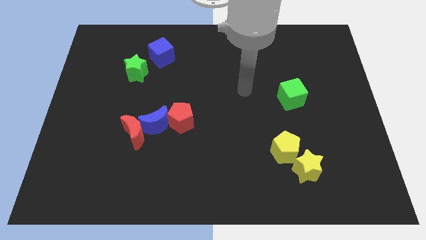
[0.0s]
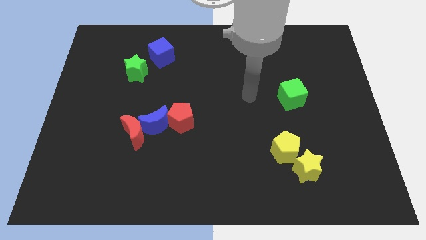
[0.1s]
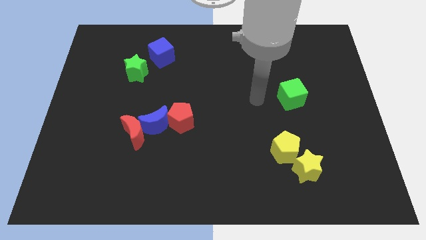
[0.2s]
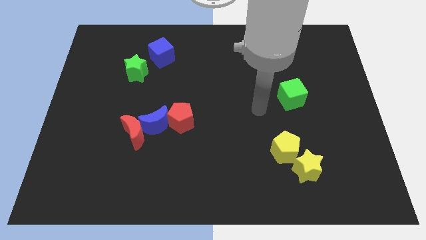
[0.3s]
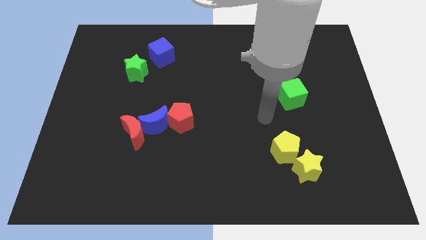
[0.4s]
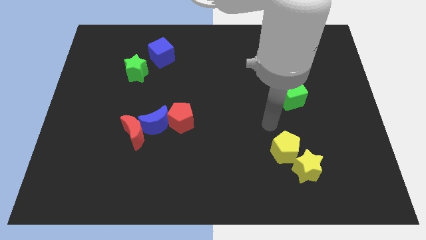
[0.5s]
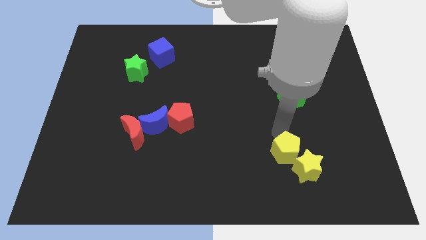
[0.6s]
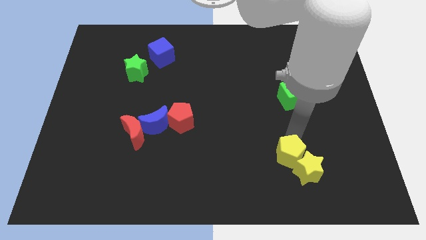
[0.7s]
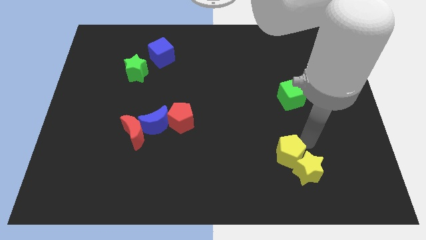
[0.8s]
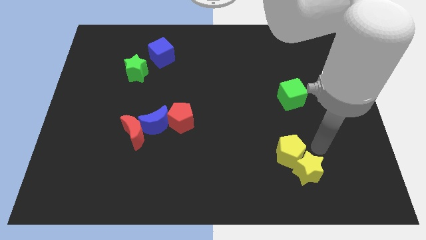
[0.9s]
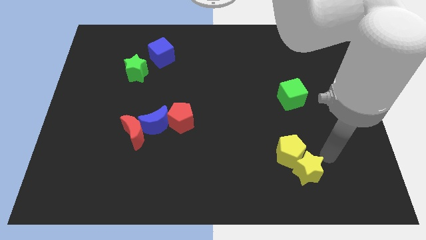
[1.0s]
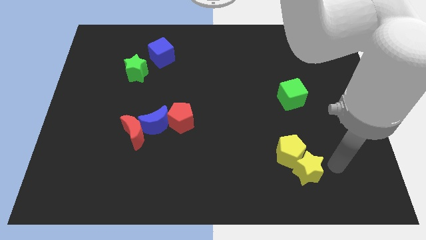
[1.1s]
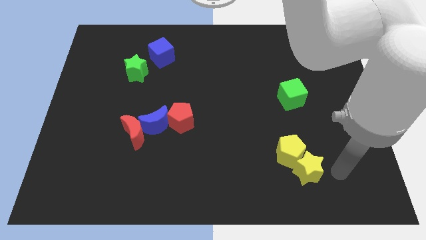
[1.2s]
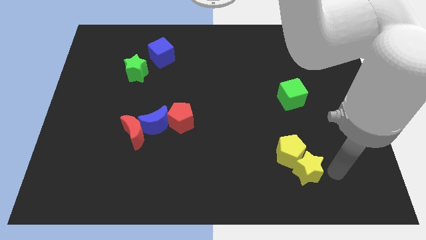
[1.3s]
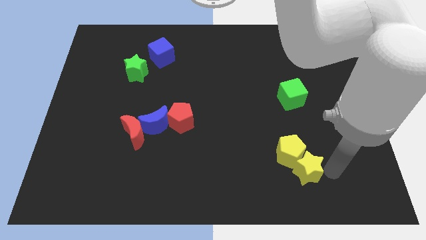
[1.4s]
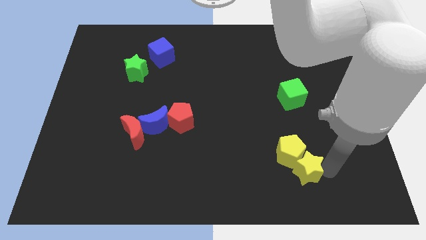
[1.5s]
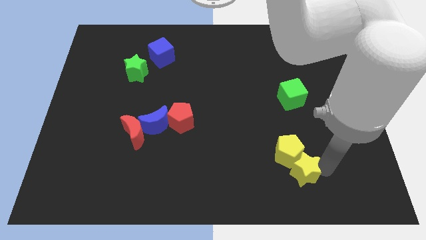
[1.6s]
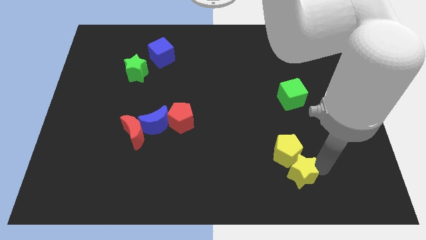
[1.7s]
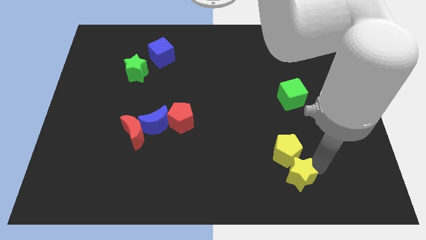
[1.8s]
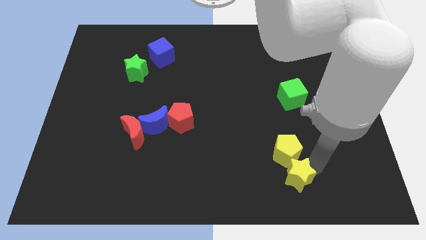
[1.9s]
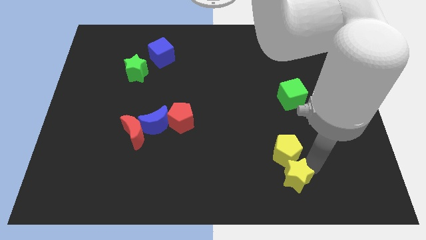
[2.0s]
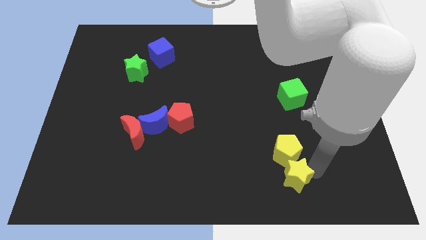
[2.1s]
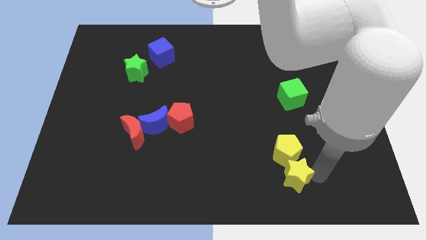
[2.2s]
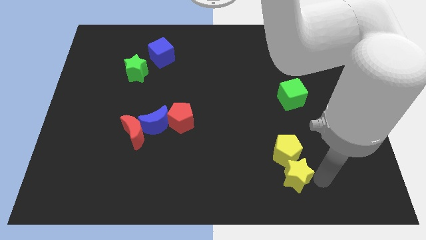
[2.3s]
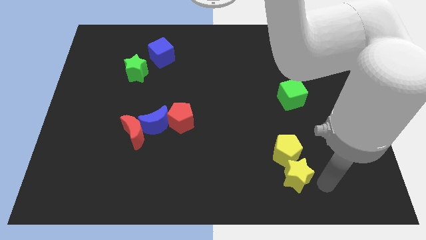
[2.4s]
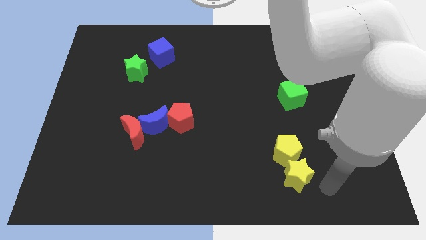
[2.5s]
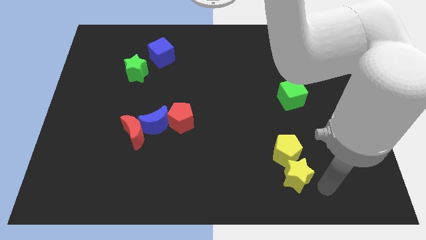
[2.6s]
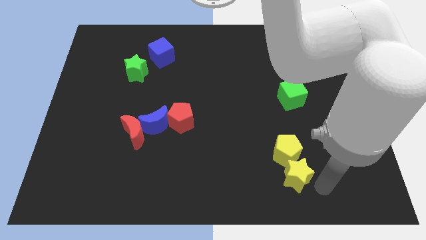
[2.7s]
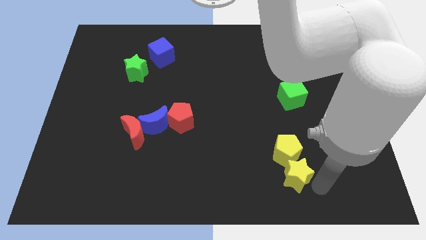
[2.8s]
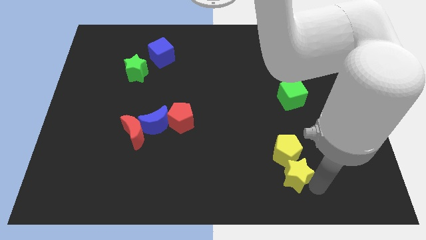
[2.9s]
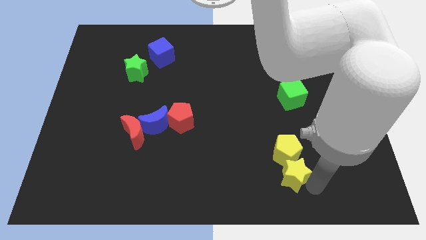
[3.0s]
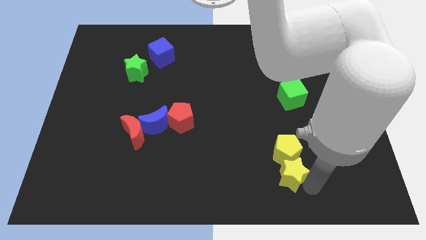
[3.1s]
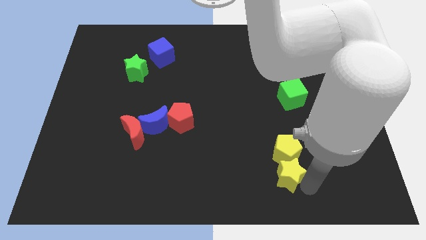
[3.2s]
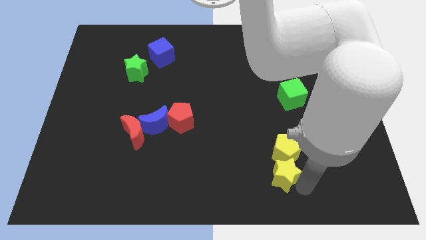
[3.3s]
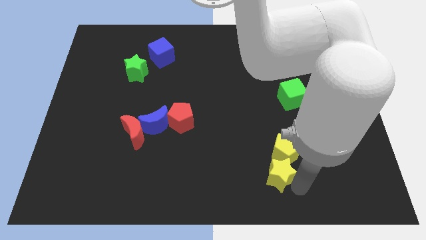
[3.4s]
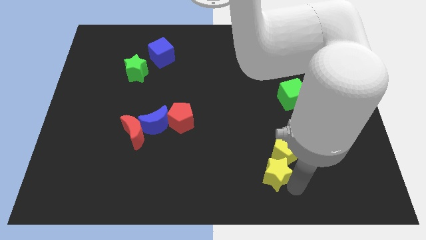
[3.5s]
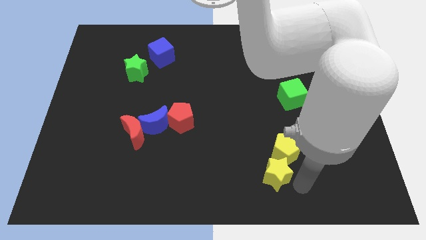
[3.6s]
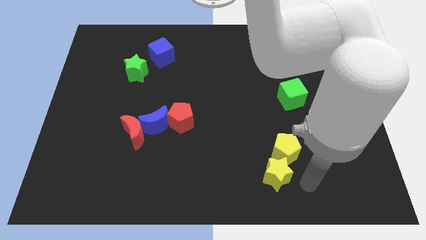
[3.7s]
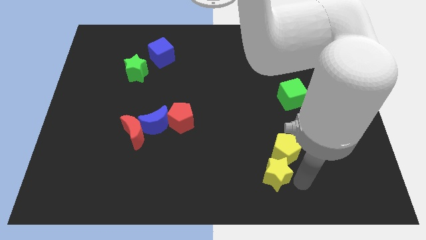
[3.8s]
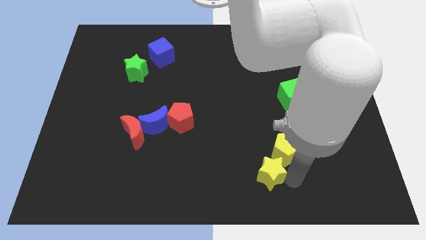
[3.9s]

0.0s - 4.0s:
move the yellow star to the left a little

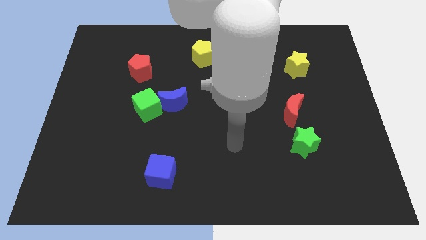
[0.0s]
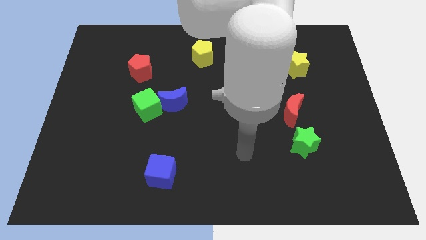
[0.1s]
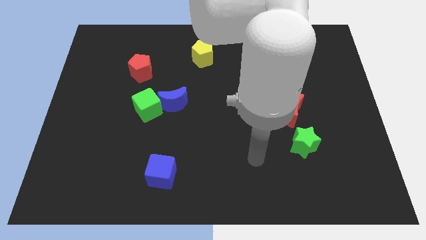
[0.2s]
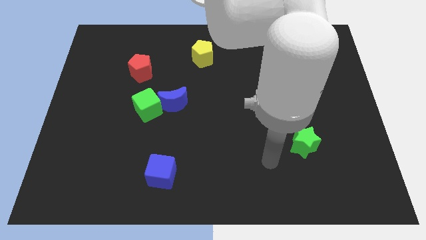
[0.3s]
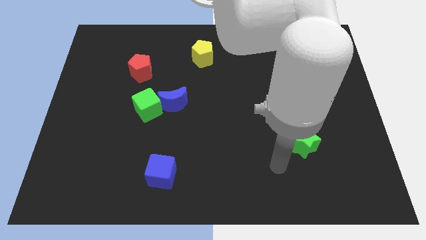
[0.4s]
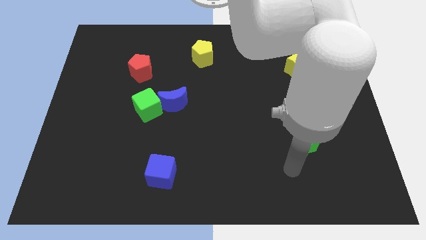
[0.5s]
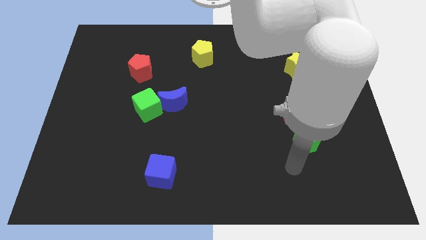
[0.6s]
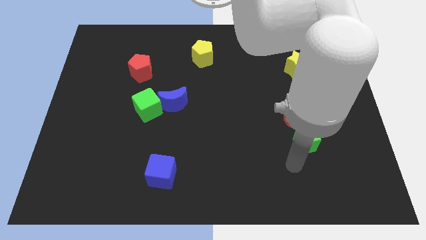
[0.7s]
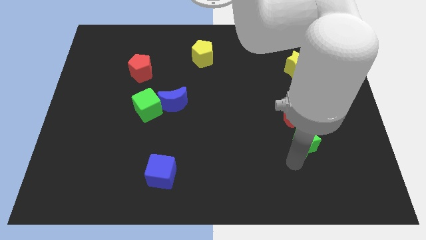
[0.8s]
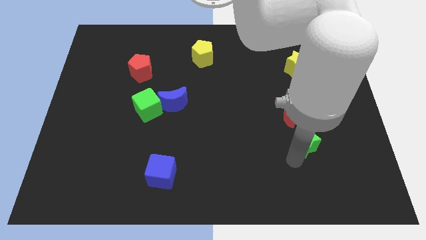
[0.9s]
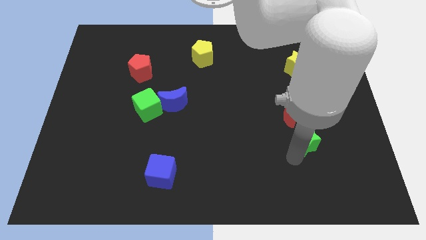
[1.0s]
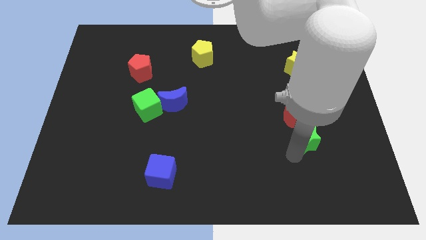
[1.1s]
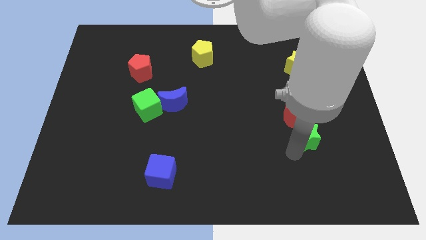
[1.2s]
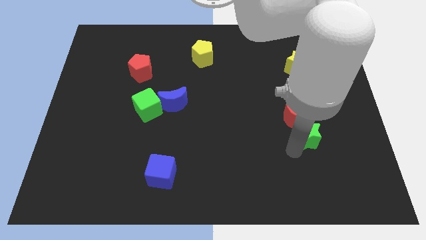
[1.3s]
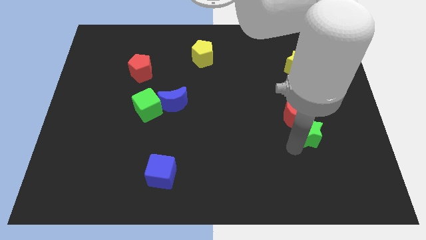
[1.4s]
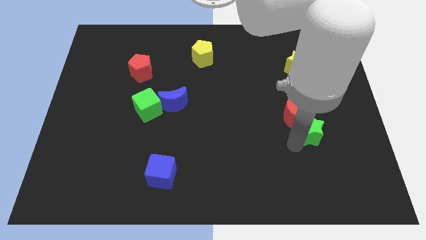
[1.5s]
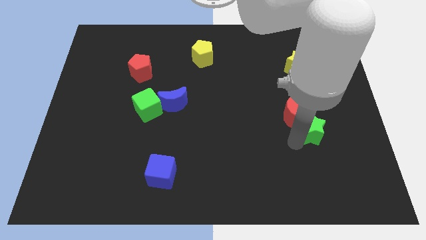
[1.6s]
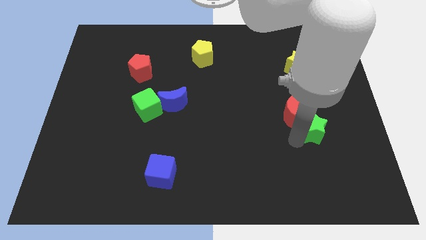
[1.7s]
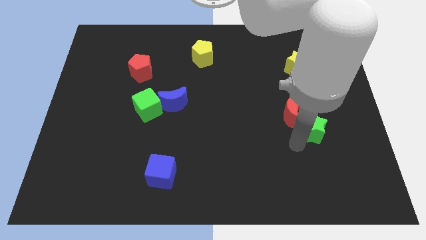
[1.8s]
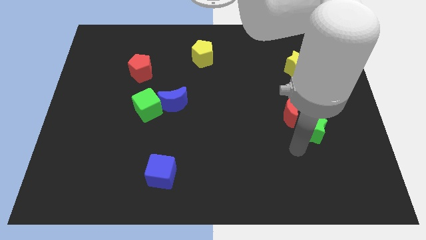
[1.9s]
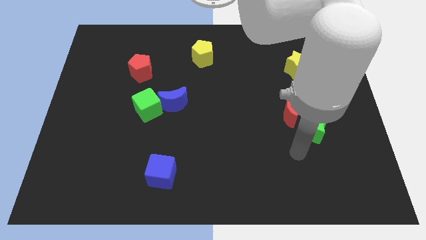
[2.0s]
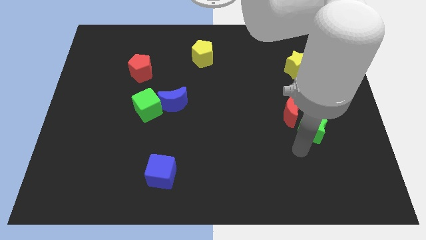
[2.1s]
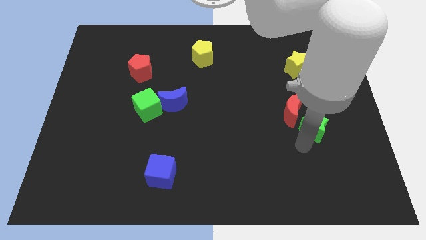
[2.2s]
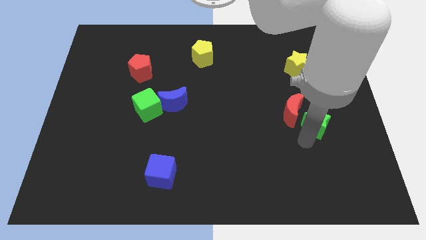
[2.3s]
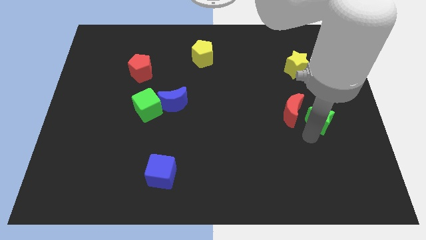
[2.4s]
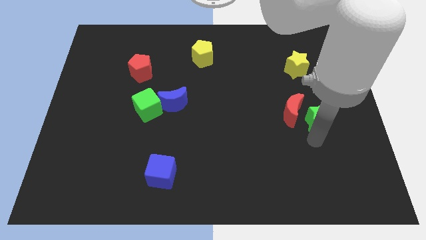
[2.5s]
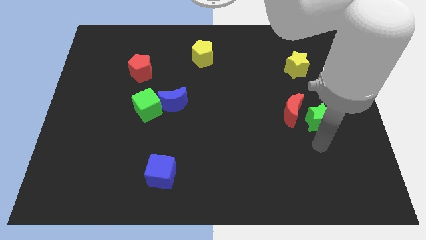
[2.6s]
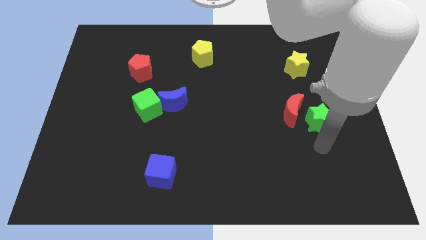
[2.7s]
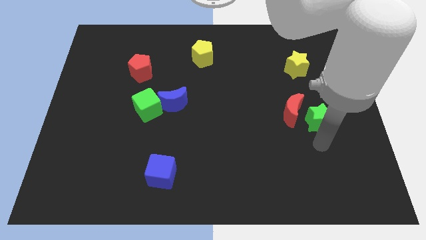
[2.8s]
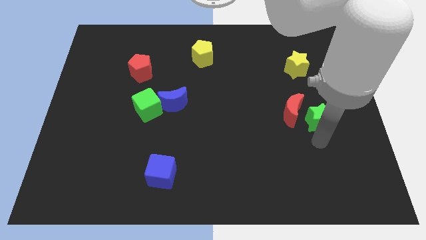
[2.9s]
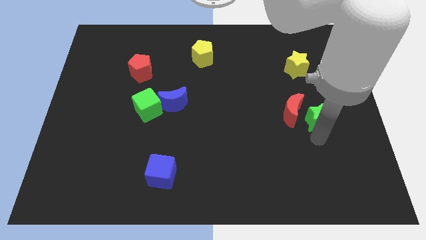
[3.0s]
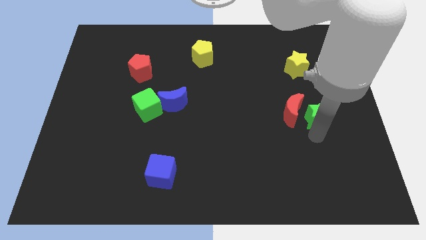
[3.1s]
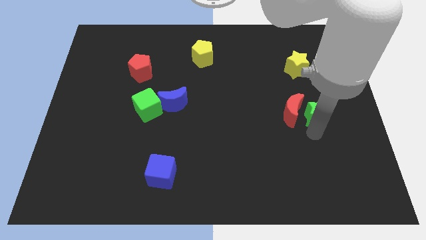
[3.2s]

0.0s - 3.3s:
slightly move the green star up

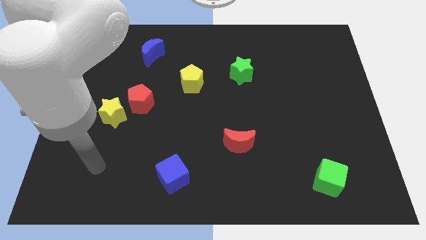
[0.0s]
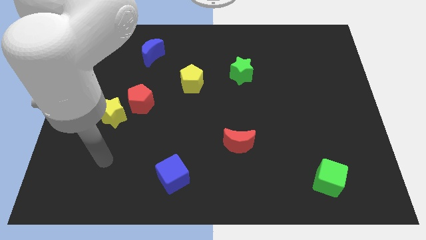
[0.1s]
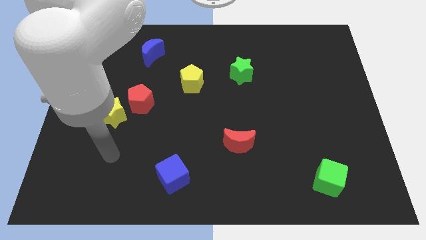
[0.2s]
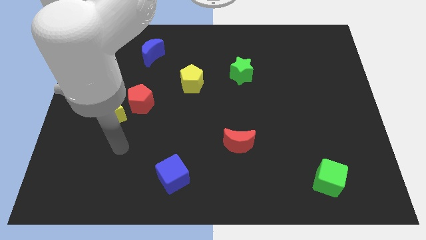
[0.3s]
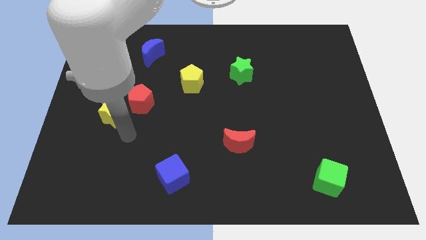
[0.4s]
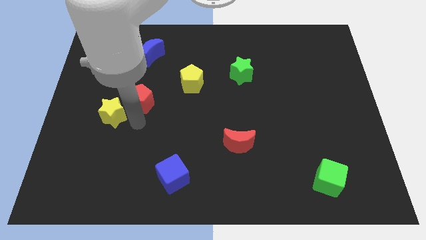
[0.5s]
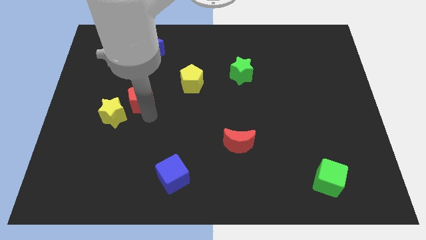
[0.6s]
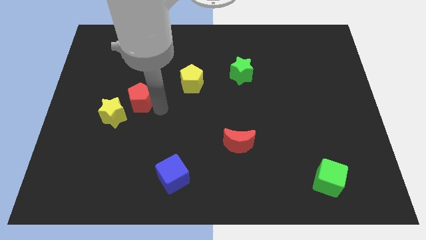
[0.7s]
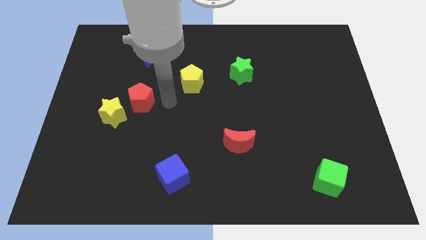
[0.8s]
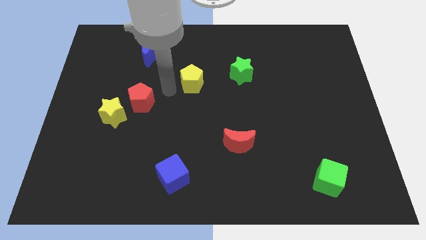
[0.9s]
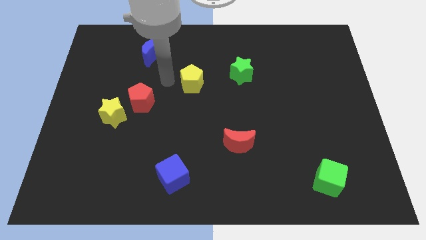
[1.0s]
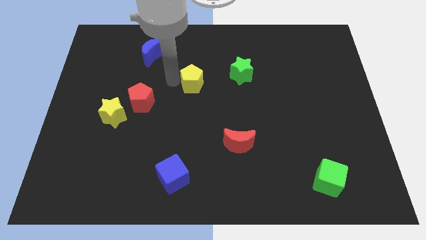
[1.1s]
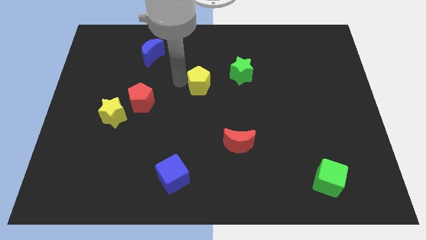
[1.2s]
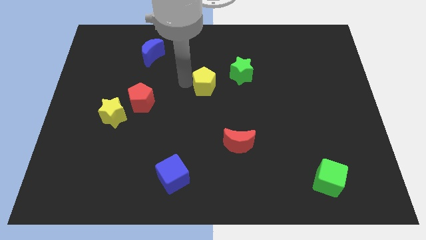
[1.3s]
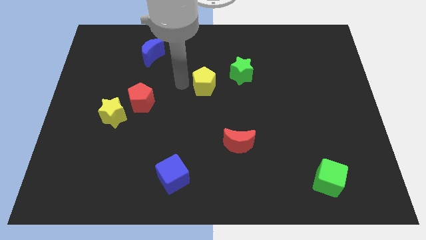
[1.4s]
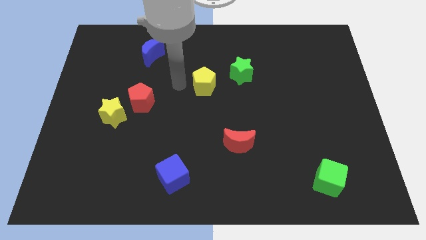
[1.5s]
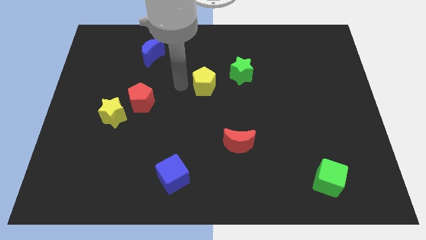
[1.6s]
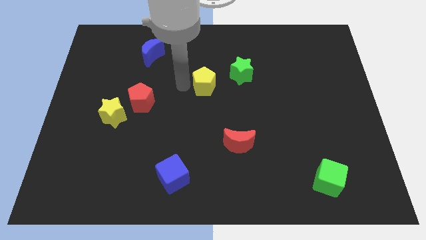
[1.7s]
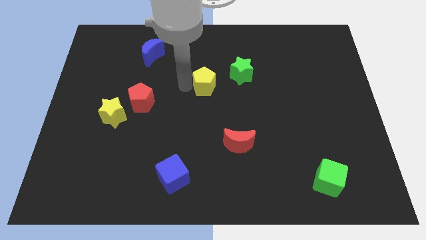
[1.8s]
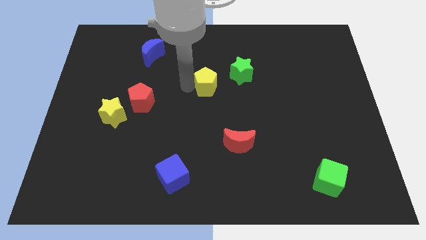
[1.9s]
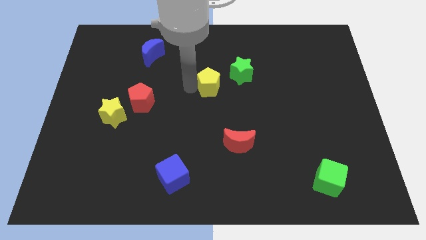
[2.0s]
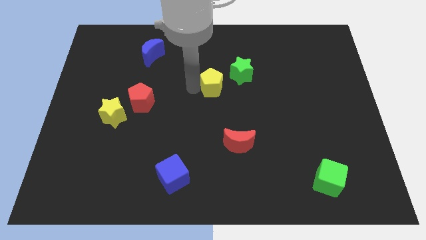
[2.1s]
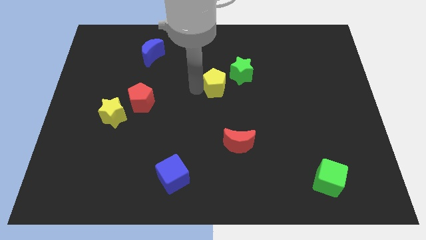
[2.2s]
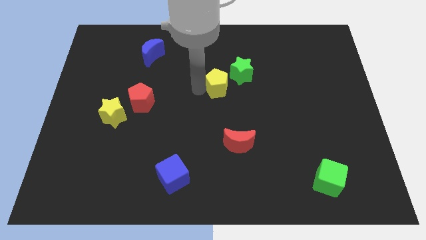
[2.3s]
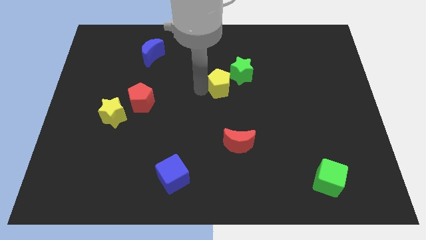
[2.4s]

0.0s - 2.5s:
slightly push the yellow pentagon right
